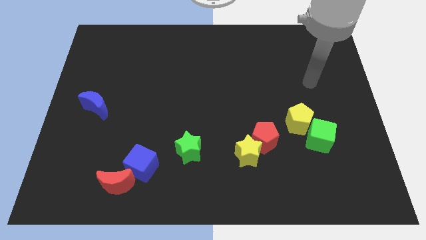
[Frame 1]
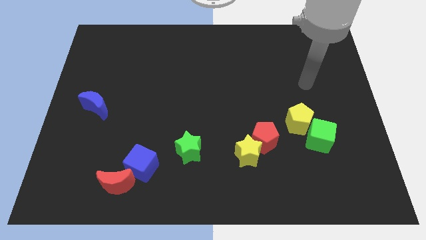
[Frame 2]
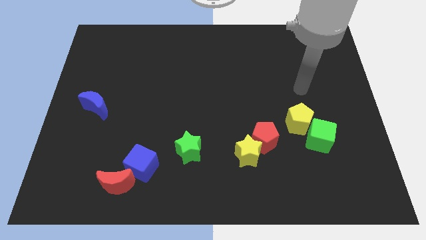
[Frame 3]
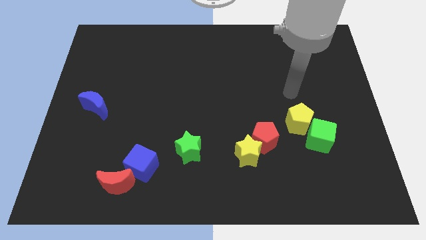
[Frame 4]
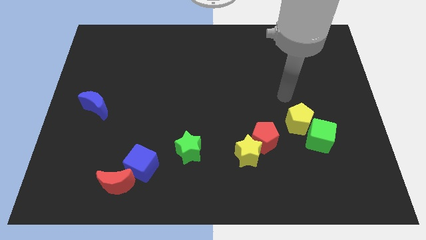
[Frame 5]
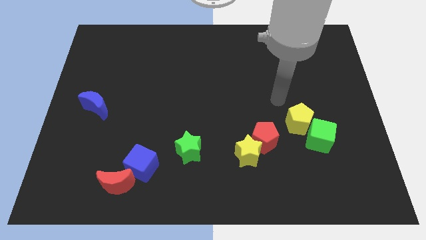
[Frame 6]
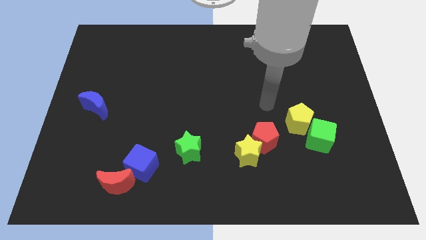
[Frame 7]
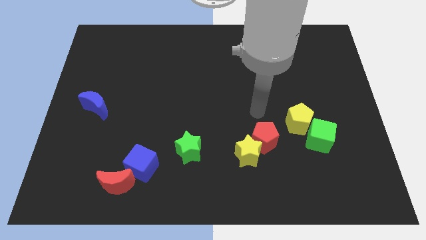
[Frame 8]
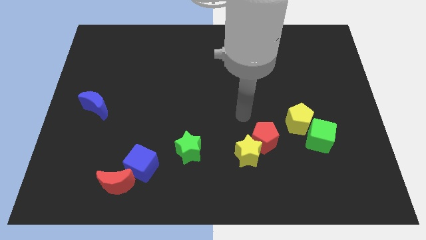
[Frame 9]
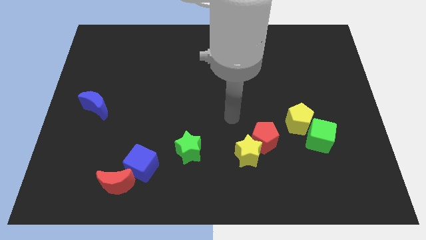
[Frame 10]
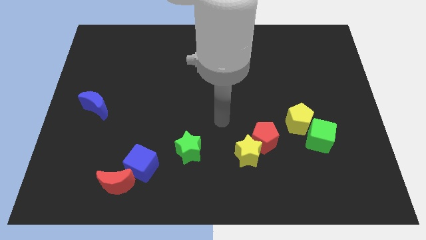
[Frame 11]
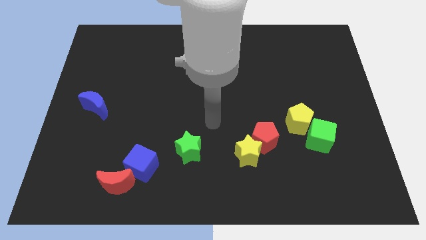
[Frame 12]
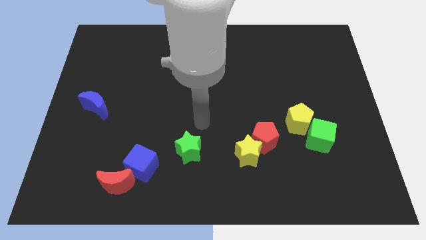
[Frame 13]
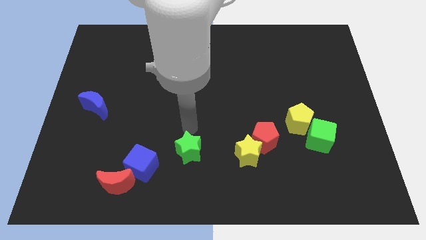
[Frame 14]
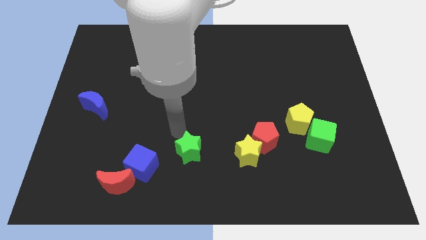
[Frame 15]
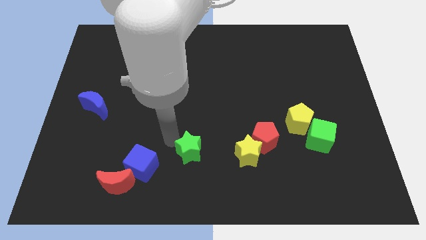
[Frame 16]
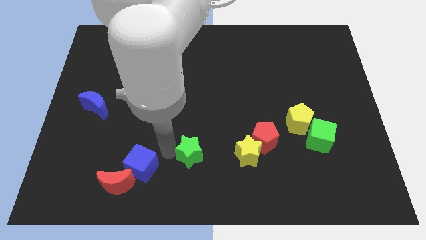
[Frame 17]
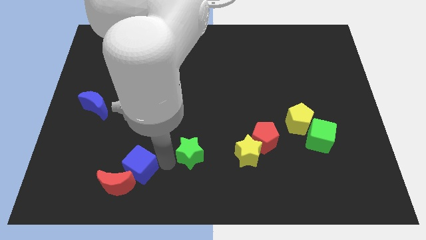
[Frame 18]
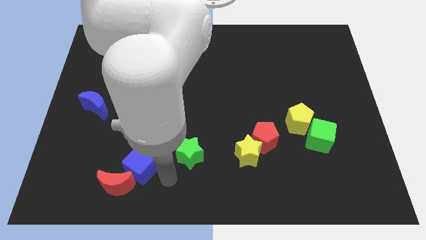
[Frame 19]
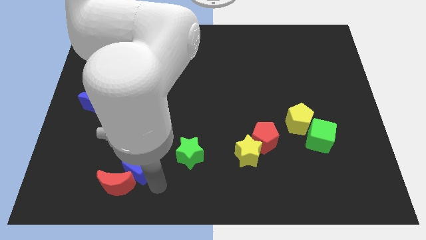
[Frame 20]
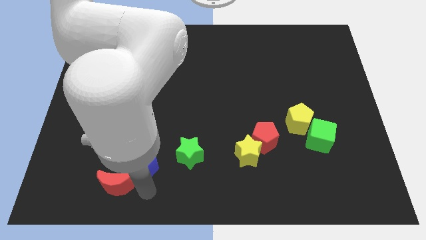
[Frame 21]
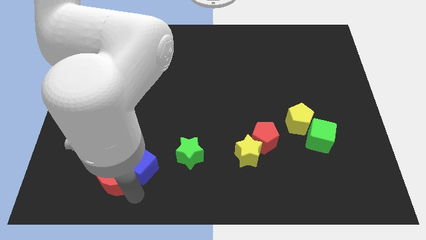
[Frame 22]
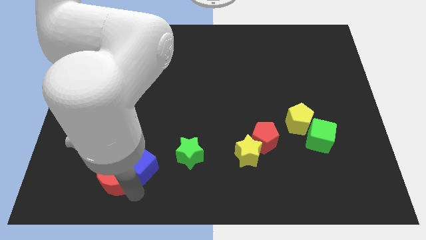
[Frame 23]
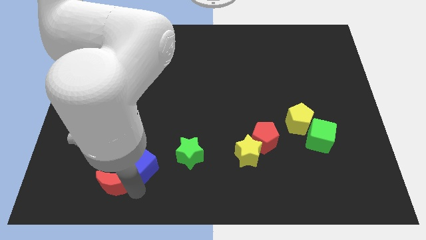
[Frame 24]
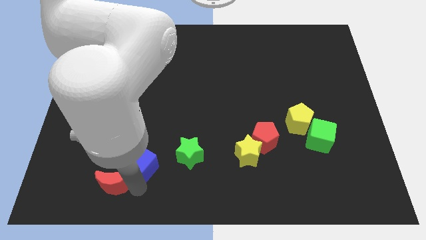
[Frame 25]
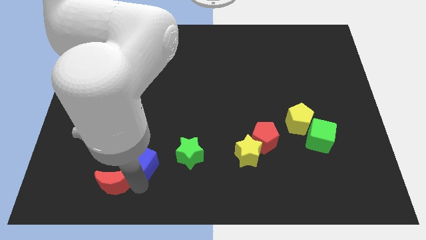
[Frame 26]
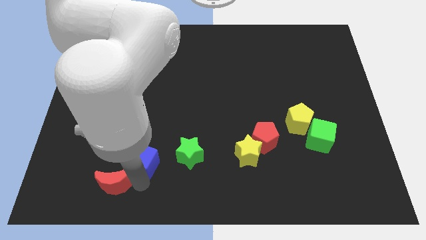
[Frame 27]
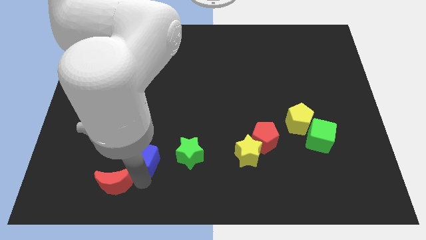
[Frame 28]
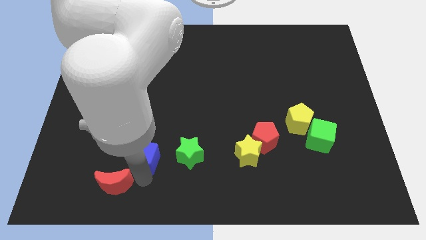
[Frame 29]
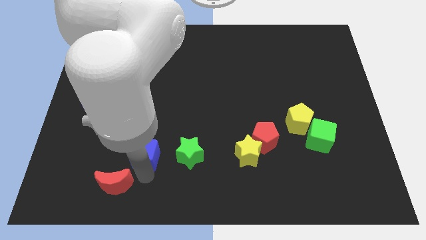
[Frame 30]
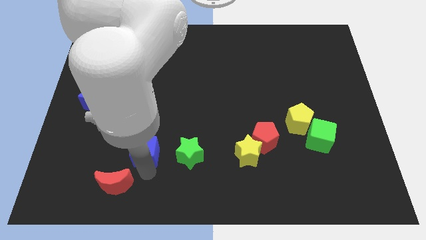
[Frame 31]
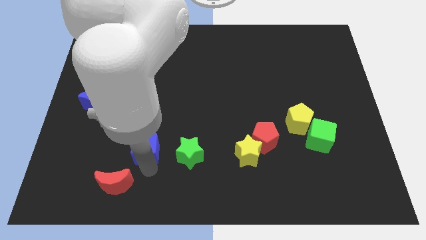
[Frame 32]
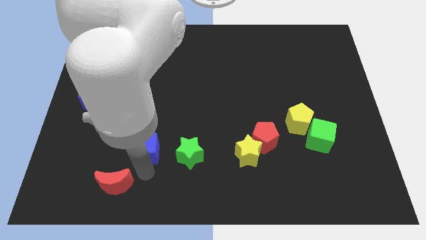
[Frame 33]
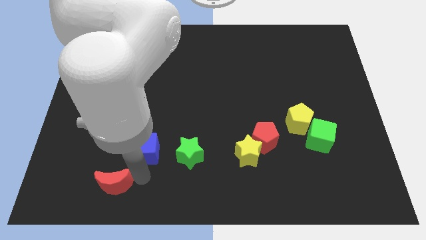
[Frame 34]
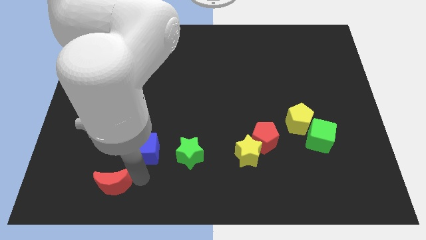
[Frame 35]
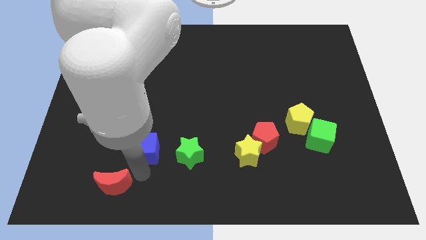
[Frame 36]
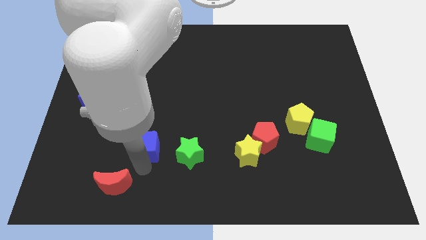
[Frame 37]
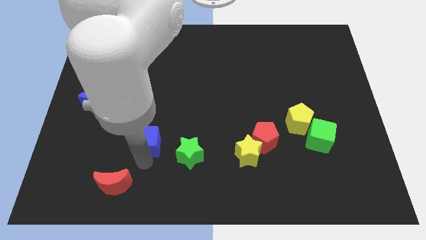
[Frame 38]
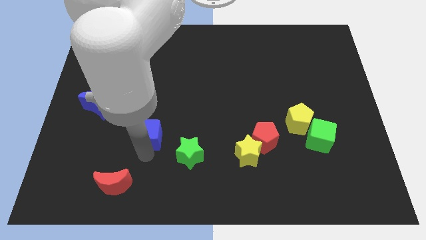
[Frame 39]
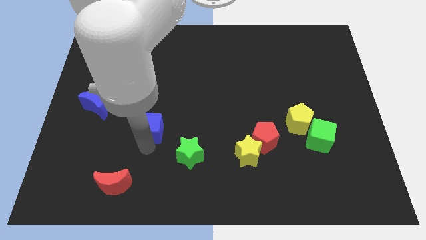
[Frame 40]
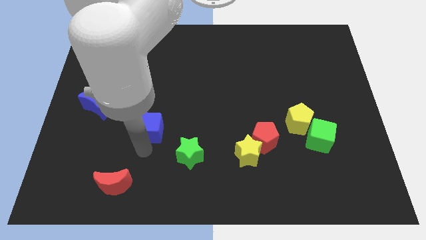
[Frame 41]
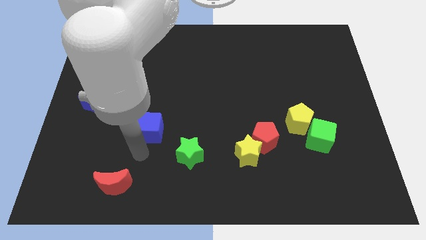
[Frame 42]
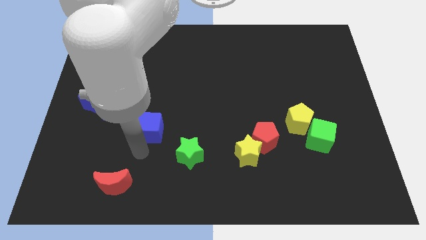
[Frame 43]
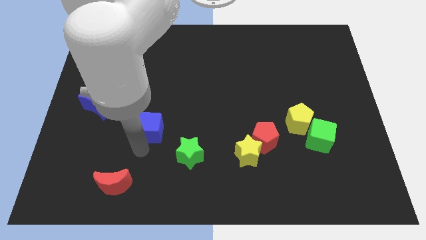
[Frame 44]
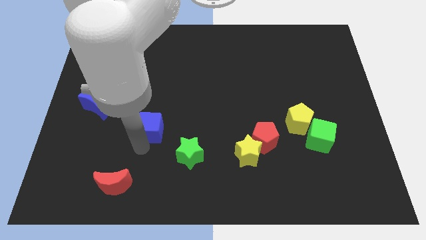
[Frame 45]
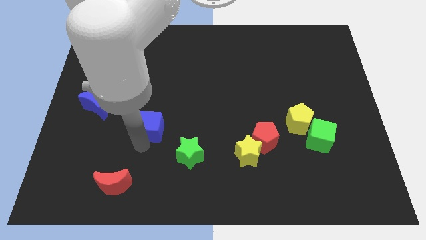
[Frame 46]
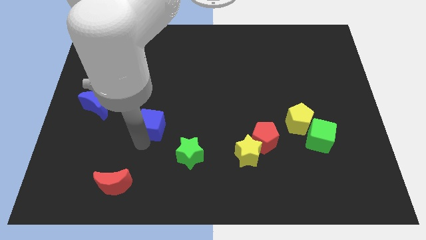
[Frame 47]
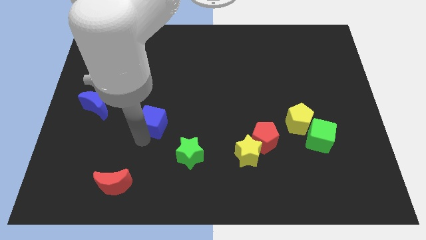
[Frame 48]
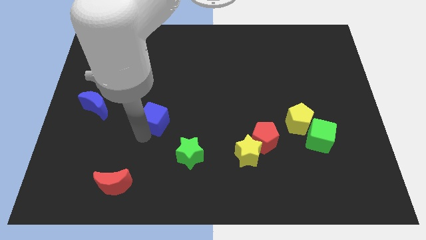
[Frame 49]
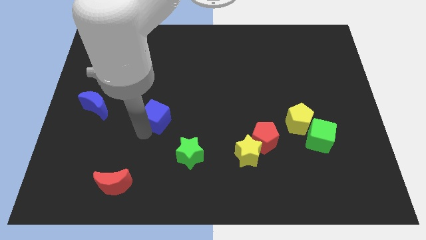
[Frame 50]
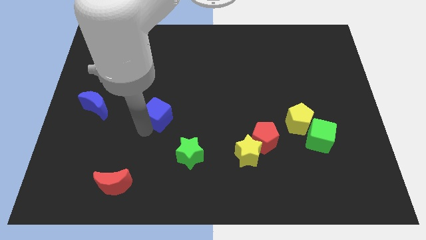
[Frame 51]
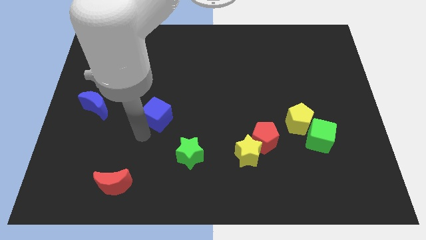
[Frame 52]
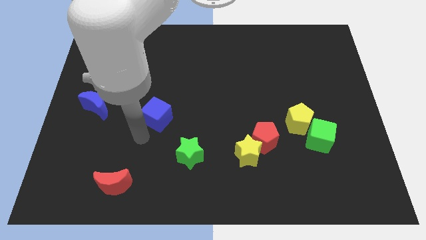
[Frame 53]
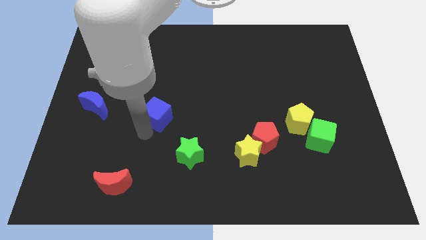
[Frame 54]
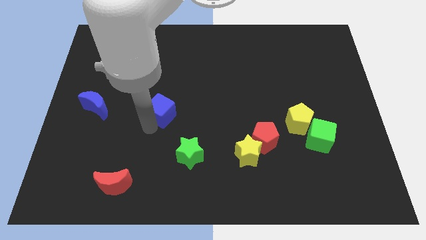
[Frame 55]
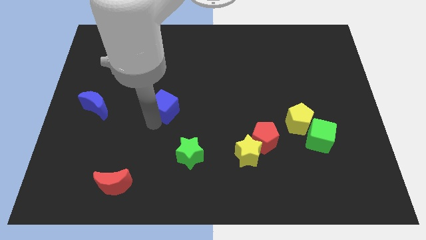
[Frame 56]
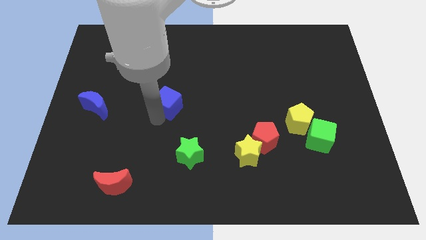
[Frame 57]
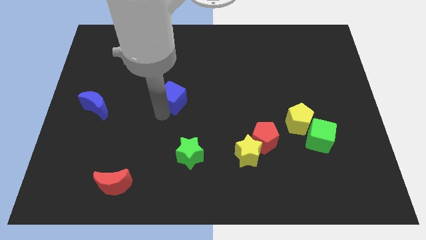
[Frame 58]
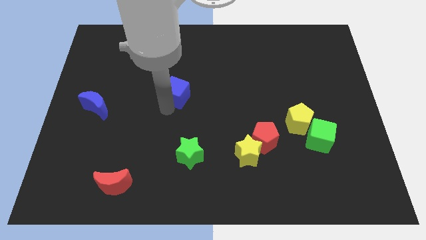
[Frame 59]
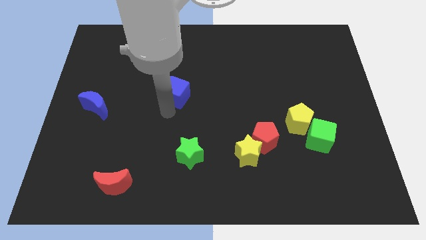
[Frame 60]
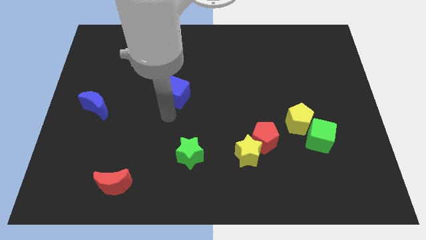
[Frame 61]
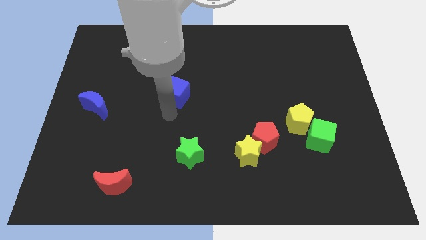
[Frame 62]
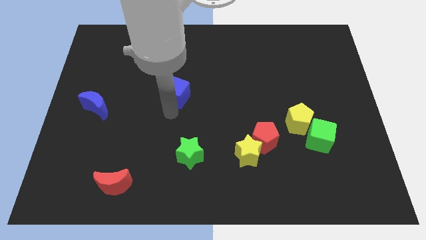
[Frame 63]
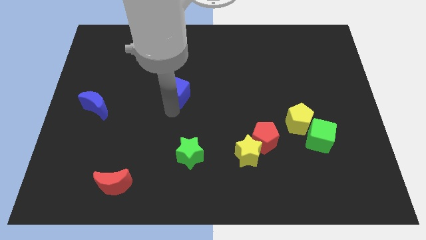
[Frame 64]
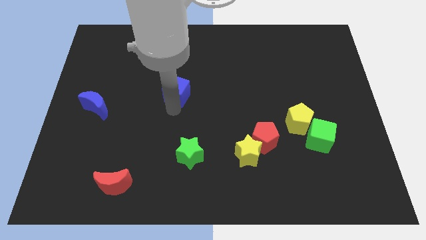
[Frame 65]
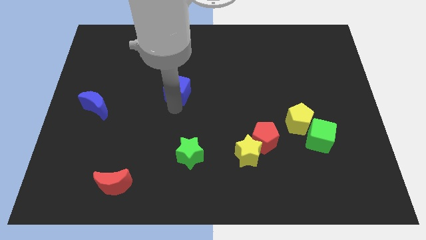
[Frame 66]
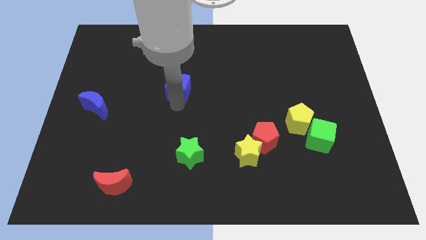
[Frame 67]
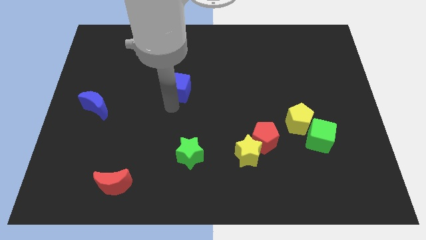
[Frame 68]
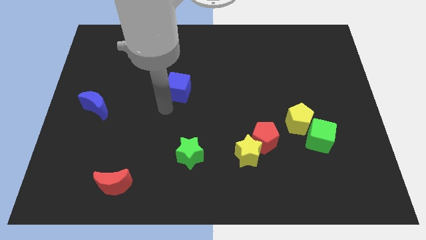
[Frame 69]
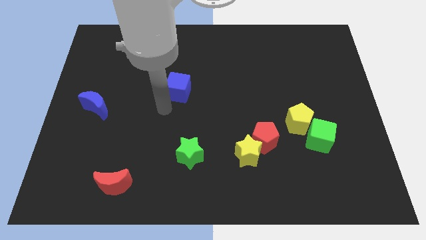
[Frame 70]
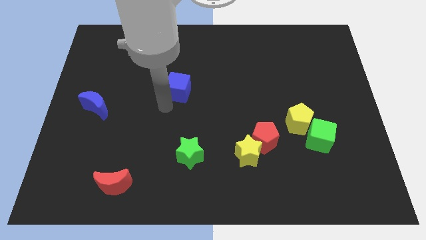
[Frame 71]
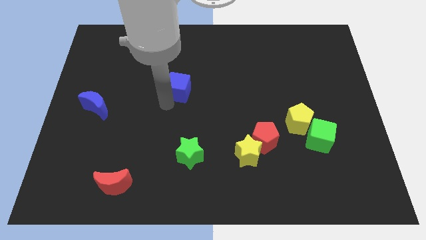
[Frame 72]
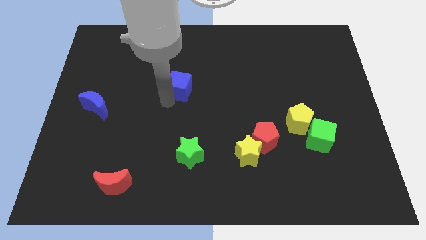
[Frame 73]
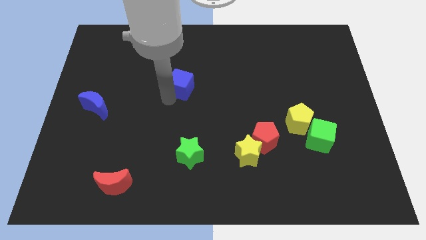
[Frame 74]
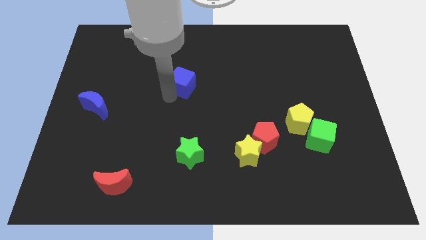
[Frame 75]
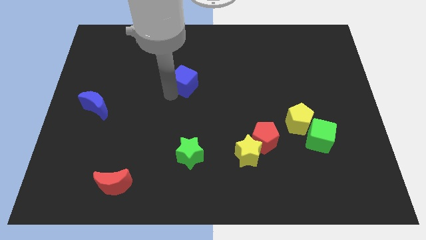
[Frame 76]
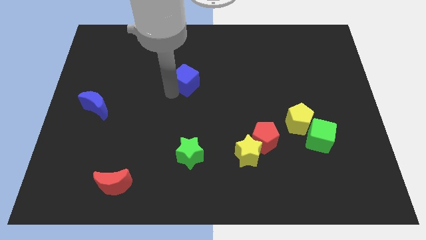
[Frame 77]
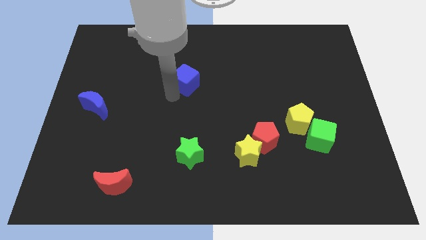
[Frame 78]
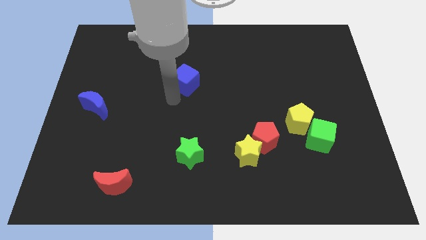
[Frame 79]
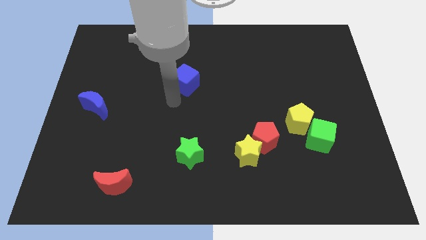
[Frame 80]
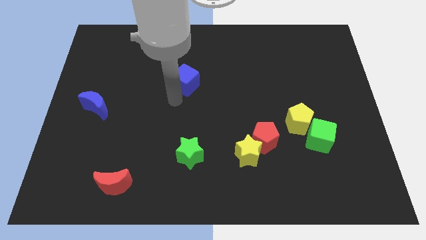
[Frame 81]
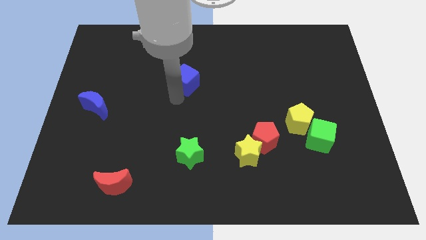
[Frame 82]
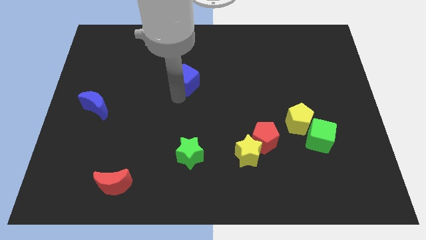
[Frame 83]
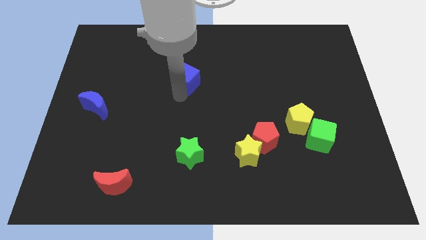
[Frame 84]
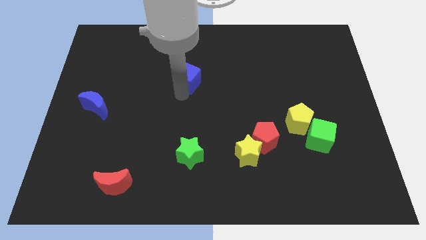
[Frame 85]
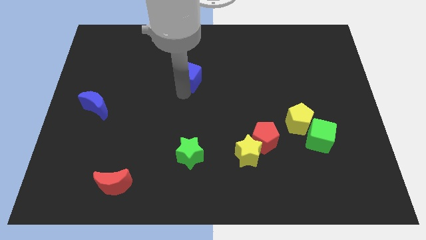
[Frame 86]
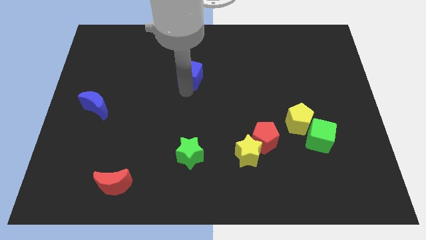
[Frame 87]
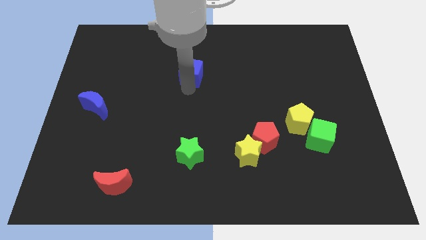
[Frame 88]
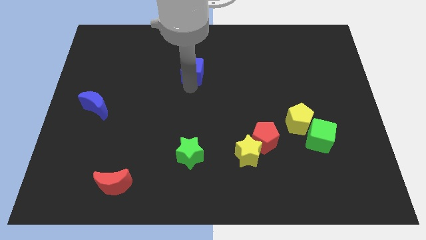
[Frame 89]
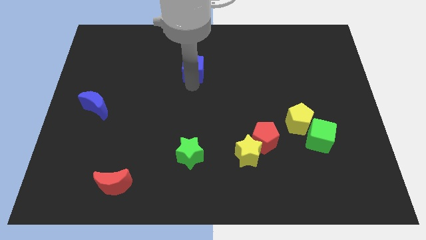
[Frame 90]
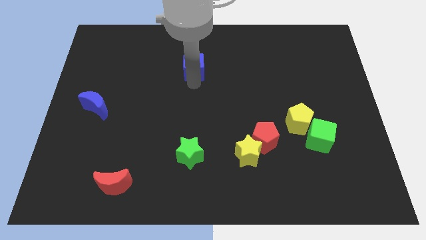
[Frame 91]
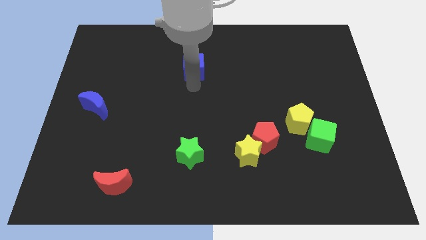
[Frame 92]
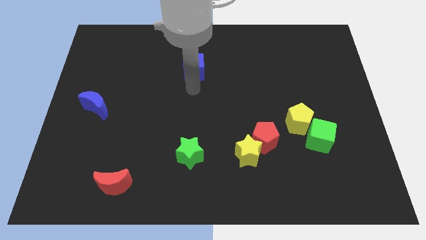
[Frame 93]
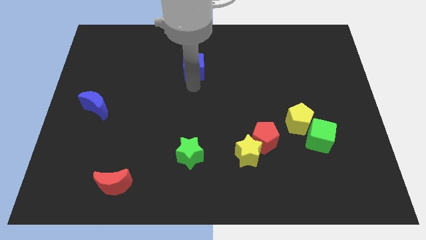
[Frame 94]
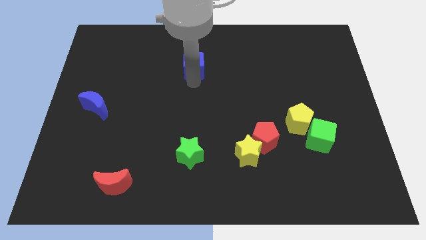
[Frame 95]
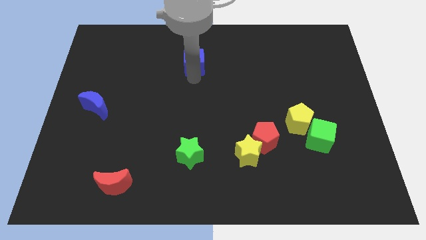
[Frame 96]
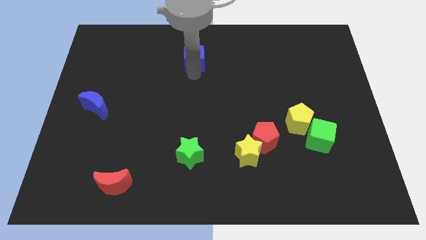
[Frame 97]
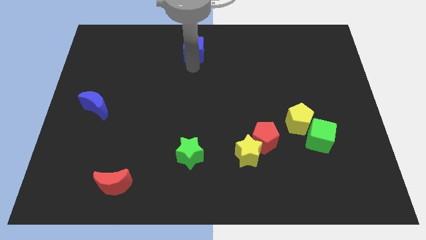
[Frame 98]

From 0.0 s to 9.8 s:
move the blue cube to the towards your base
